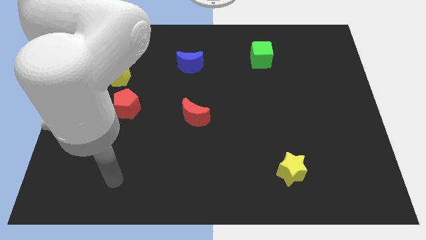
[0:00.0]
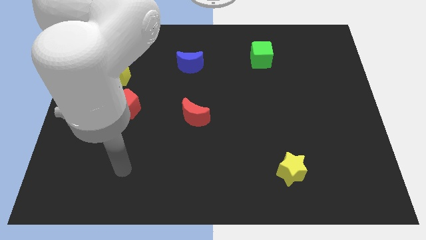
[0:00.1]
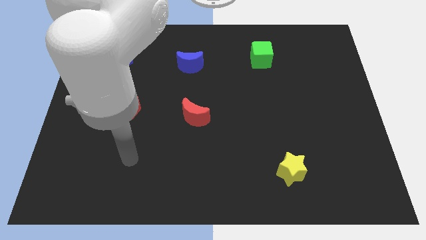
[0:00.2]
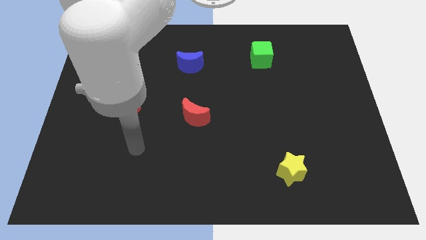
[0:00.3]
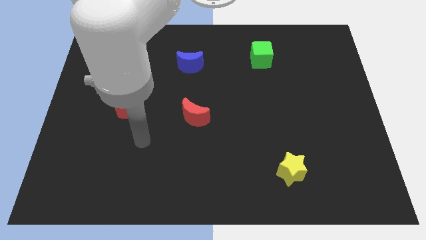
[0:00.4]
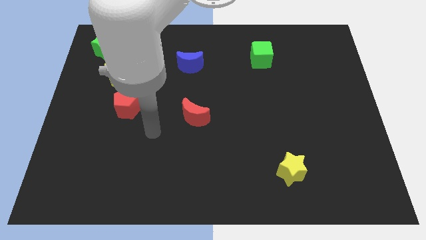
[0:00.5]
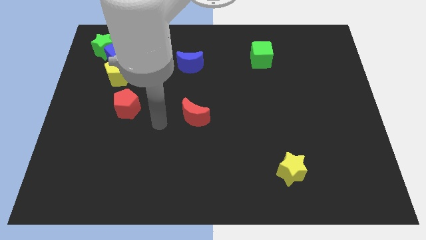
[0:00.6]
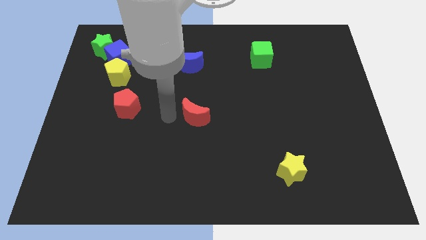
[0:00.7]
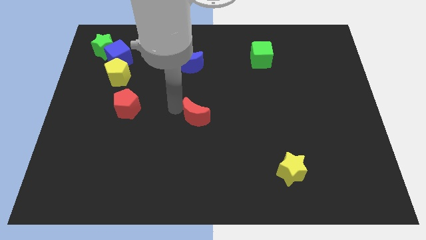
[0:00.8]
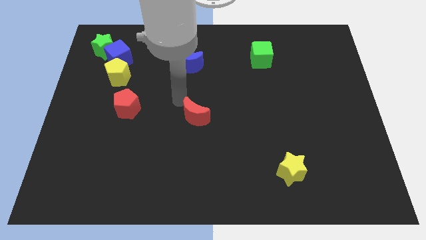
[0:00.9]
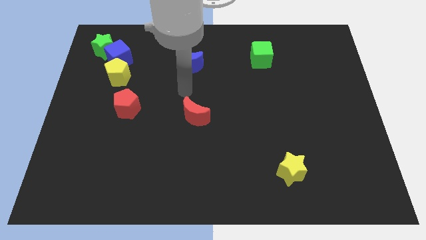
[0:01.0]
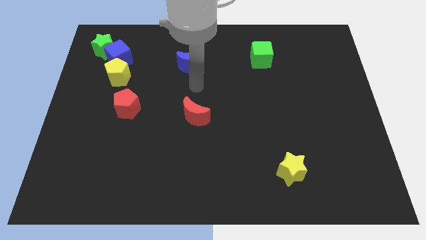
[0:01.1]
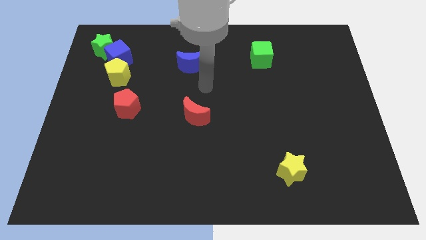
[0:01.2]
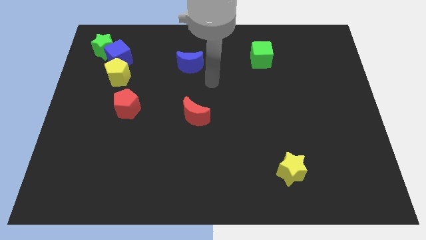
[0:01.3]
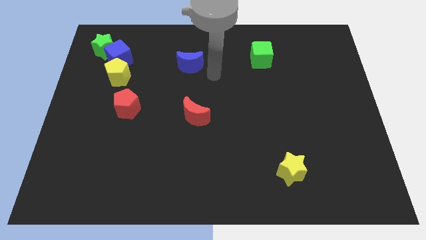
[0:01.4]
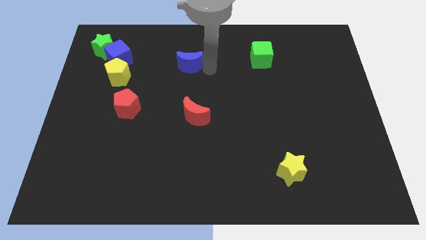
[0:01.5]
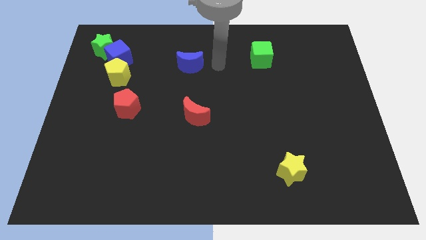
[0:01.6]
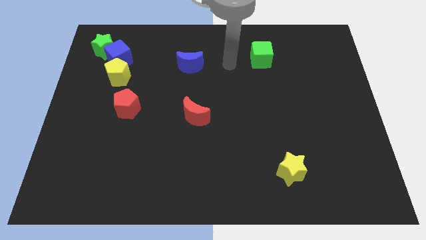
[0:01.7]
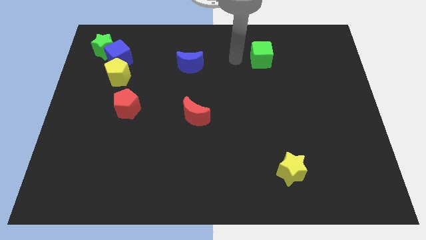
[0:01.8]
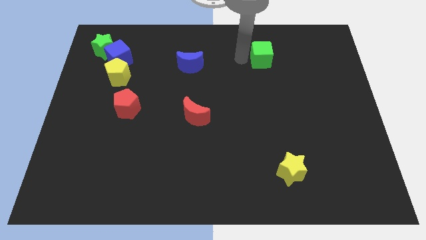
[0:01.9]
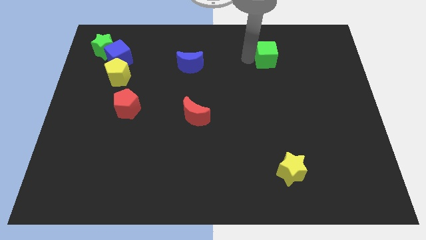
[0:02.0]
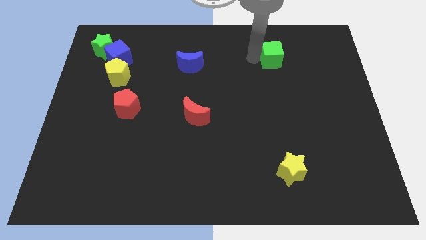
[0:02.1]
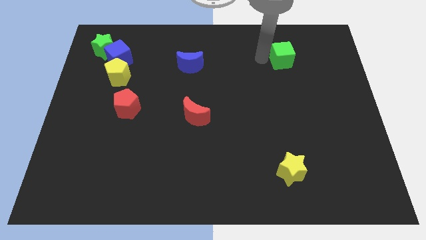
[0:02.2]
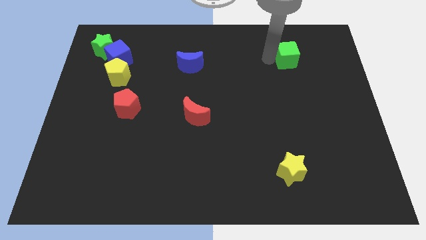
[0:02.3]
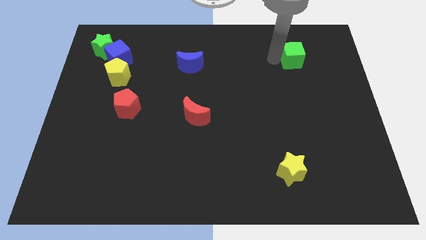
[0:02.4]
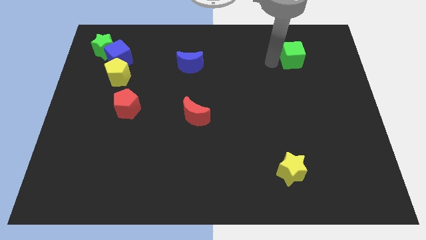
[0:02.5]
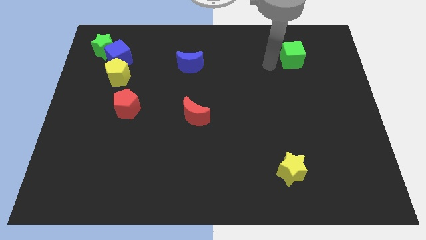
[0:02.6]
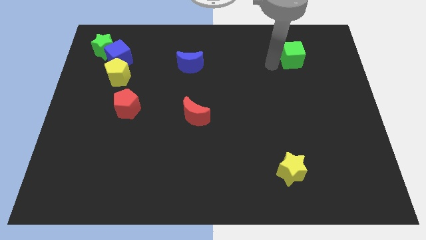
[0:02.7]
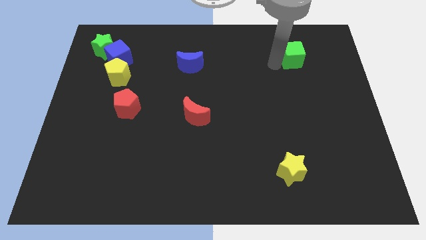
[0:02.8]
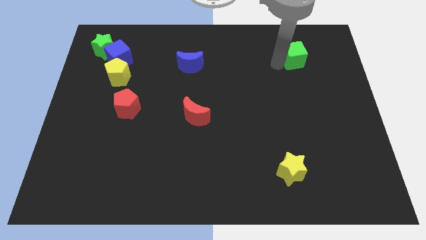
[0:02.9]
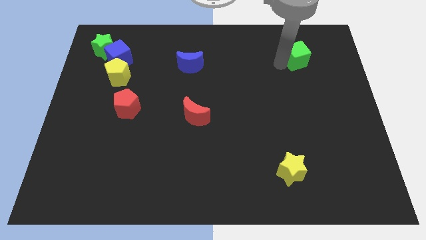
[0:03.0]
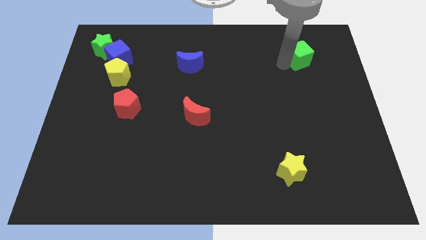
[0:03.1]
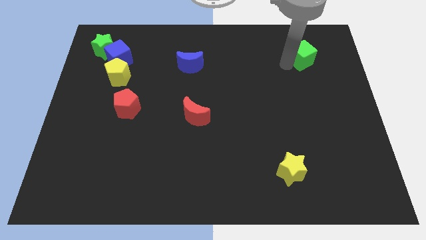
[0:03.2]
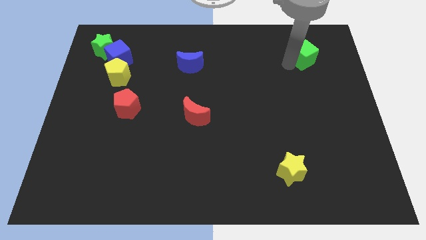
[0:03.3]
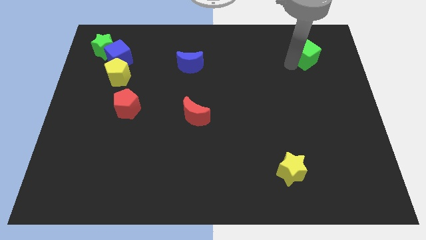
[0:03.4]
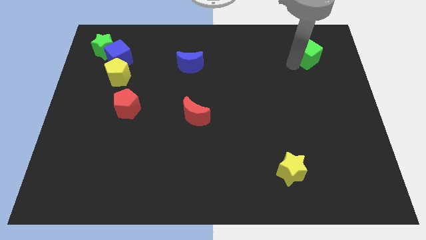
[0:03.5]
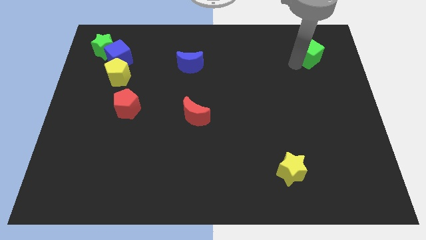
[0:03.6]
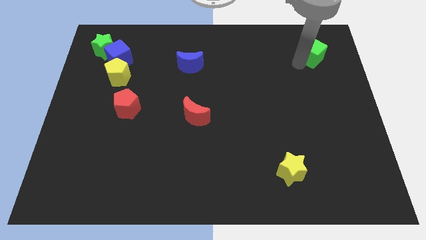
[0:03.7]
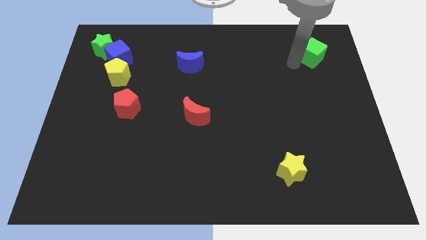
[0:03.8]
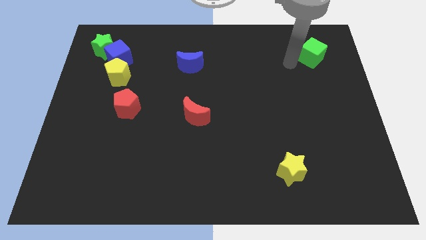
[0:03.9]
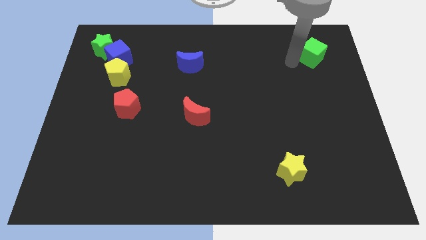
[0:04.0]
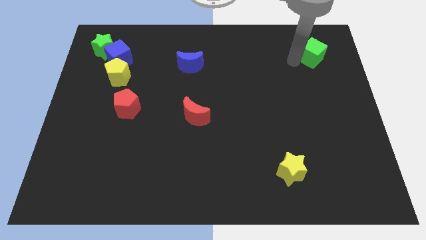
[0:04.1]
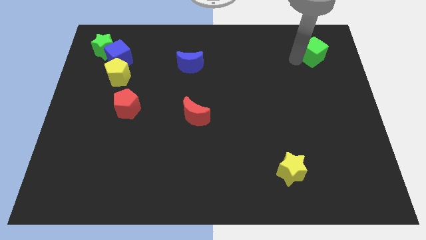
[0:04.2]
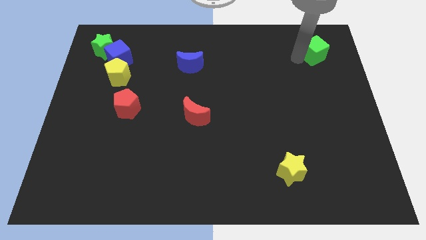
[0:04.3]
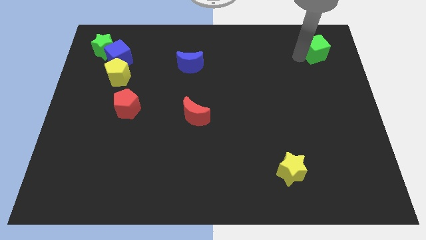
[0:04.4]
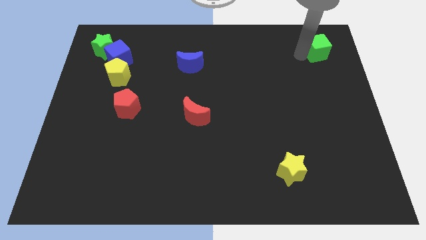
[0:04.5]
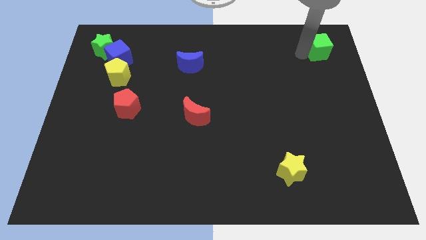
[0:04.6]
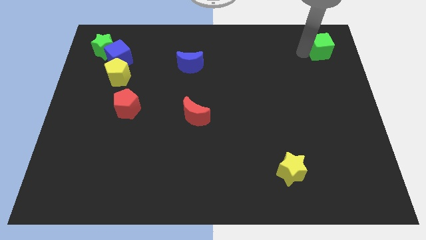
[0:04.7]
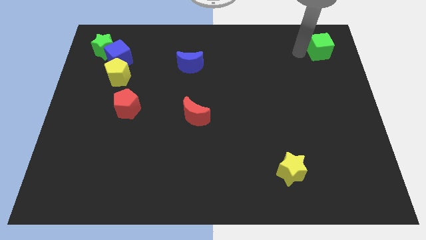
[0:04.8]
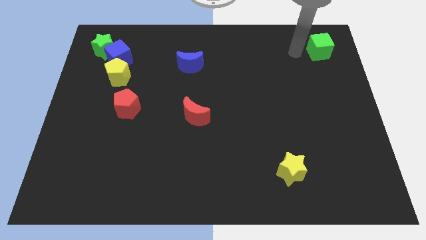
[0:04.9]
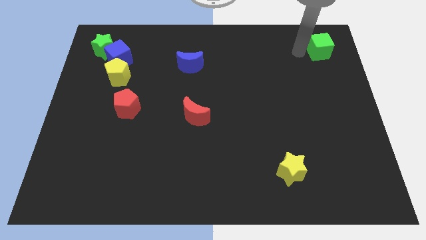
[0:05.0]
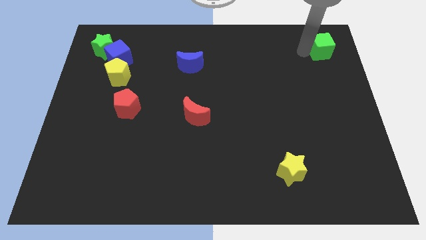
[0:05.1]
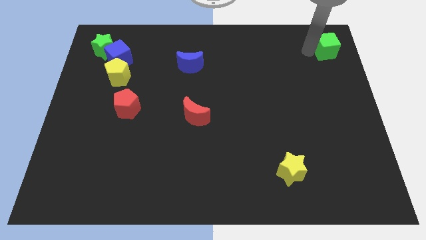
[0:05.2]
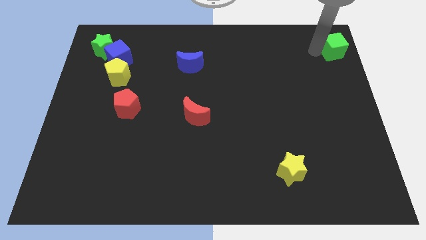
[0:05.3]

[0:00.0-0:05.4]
move the green cube to the top right
